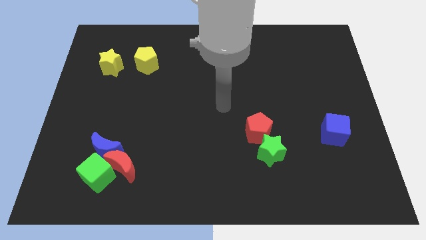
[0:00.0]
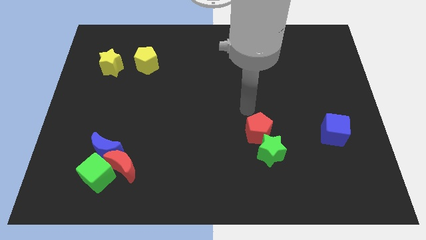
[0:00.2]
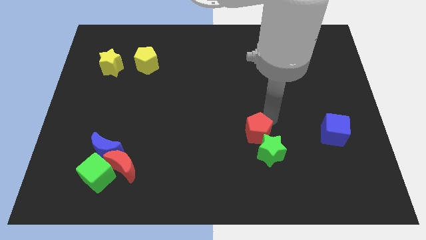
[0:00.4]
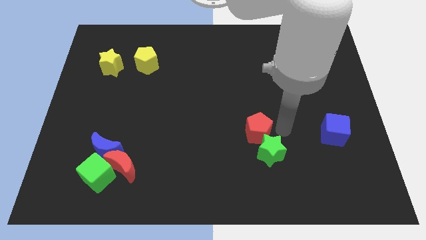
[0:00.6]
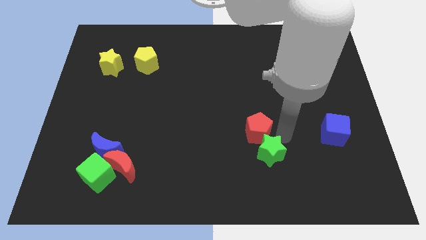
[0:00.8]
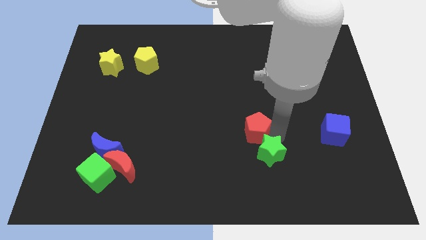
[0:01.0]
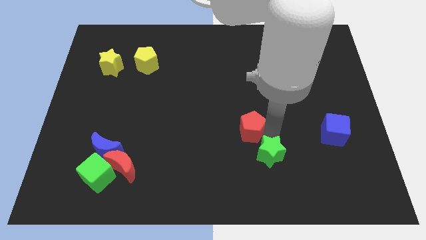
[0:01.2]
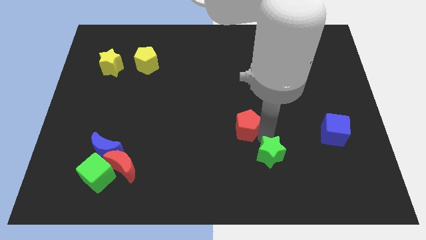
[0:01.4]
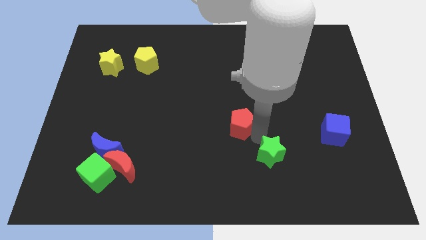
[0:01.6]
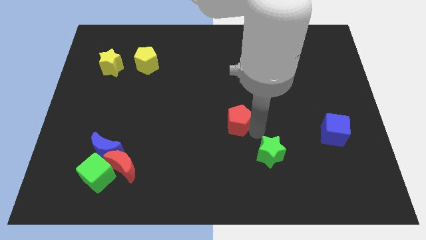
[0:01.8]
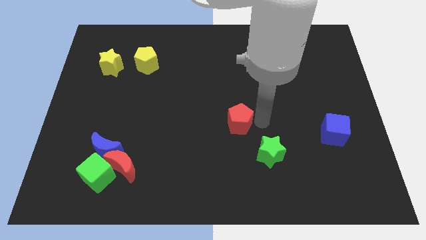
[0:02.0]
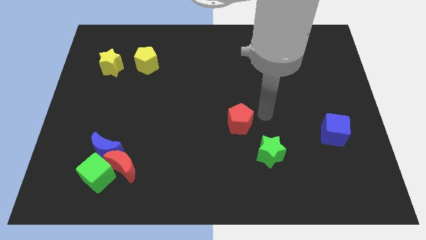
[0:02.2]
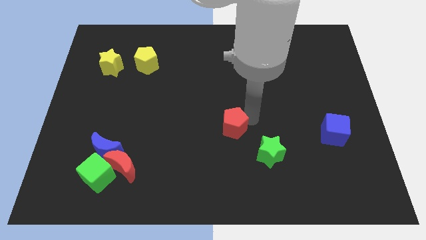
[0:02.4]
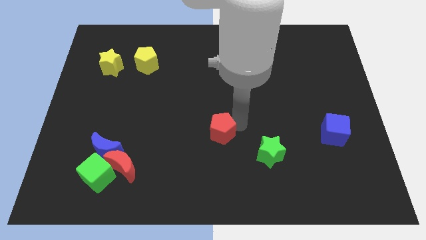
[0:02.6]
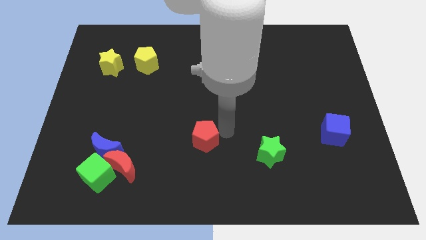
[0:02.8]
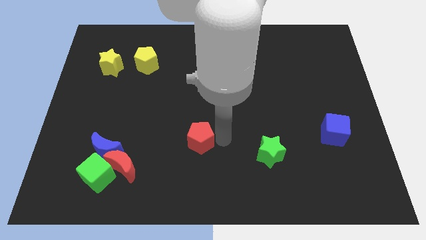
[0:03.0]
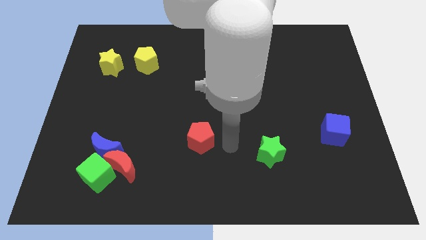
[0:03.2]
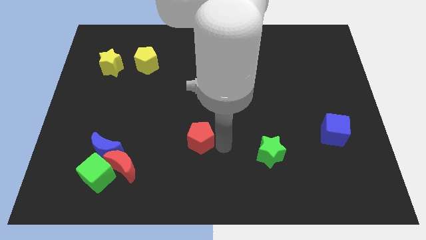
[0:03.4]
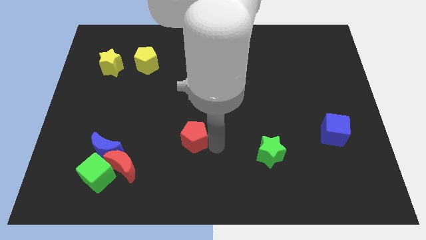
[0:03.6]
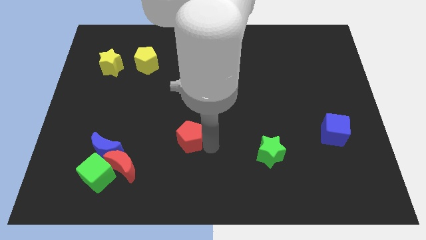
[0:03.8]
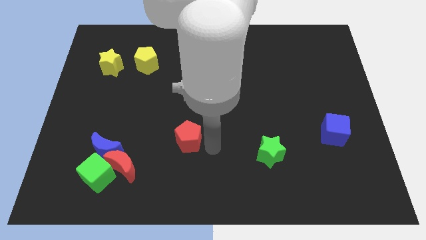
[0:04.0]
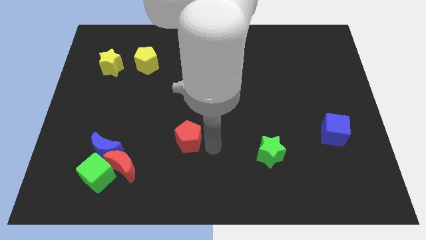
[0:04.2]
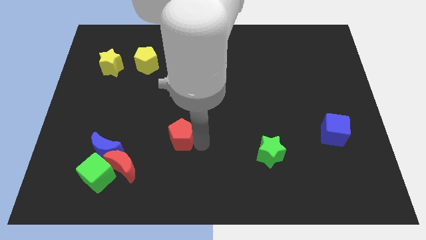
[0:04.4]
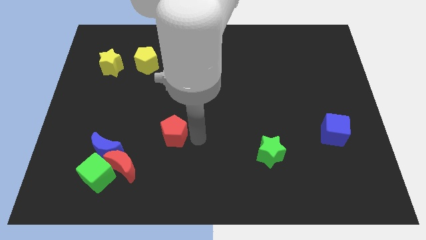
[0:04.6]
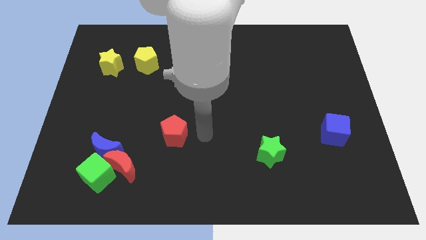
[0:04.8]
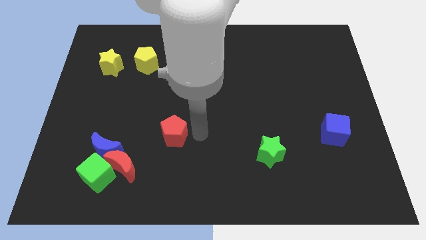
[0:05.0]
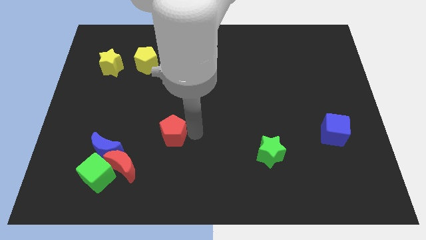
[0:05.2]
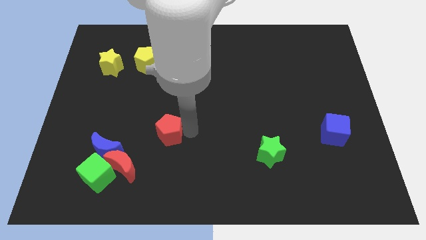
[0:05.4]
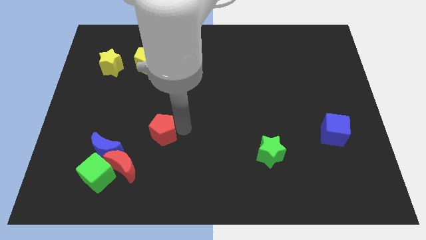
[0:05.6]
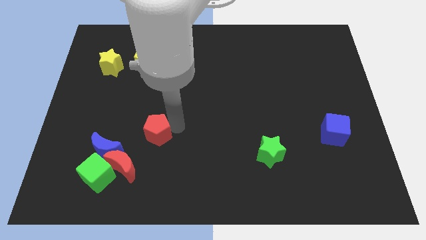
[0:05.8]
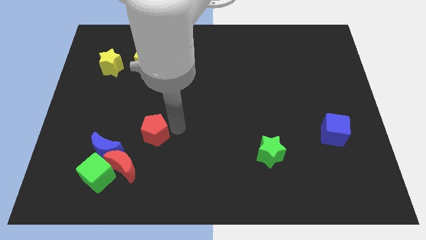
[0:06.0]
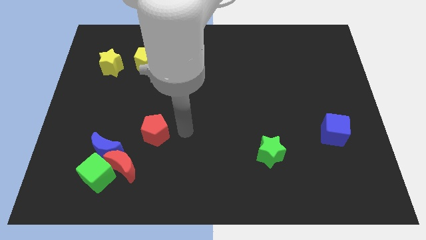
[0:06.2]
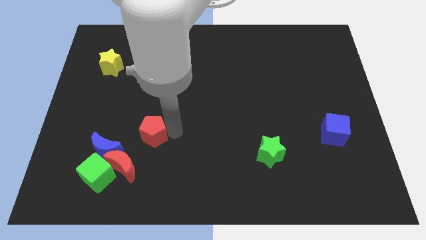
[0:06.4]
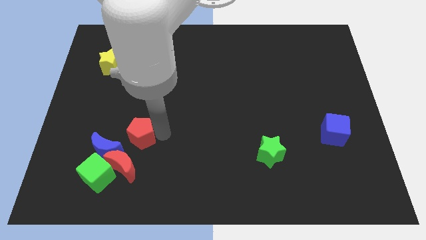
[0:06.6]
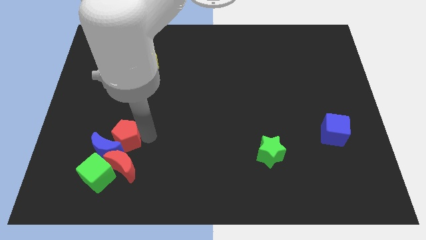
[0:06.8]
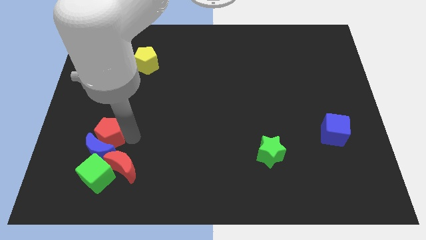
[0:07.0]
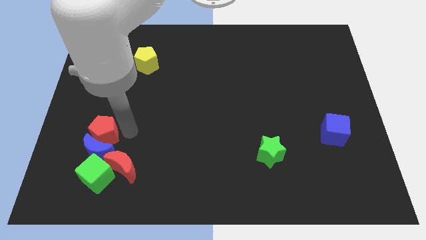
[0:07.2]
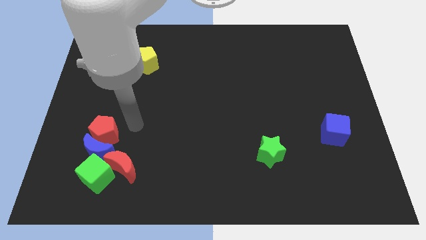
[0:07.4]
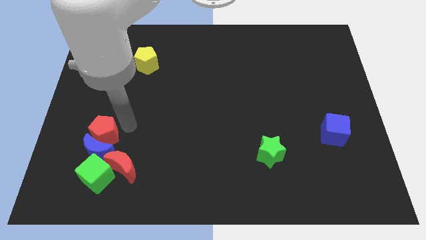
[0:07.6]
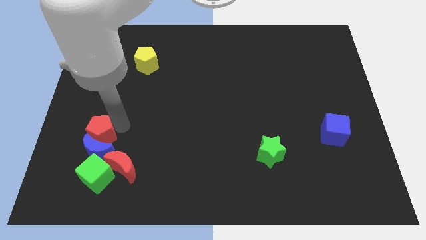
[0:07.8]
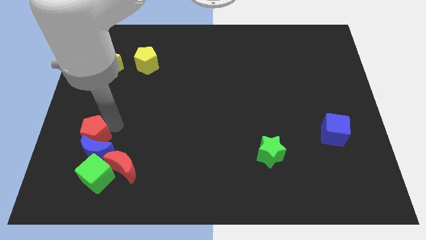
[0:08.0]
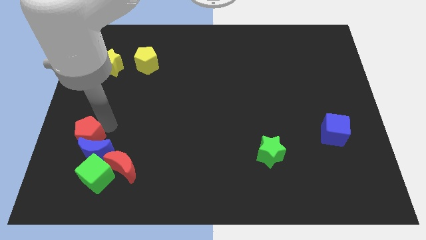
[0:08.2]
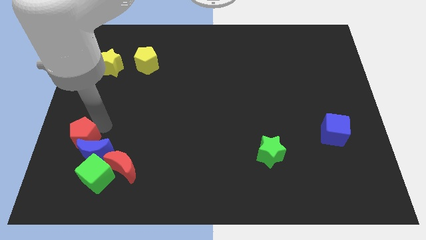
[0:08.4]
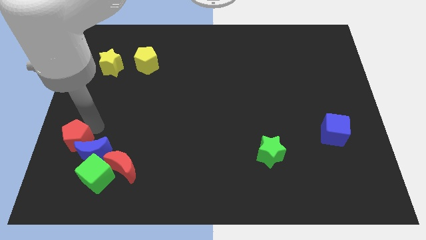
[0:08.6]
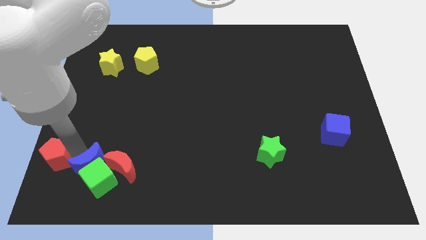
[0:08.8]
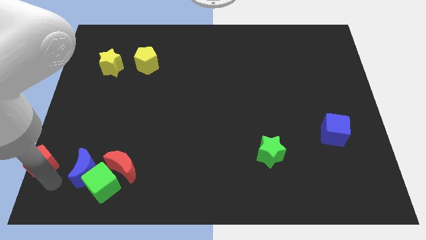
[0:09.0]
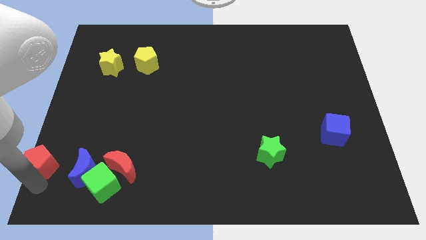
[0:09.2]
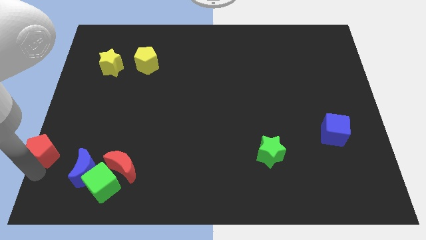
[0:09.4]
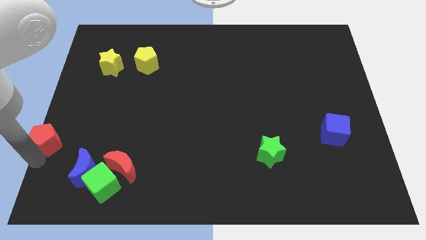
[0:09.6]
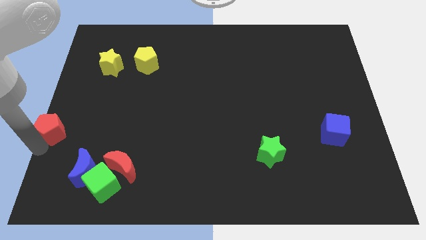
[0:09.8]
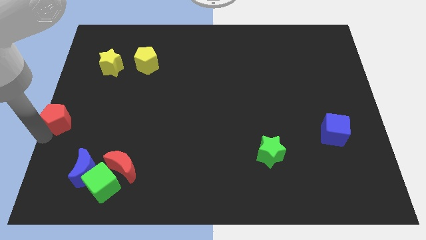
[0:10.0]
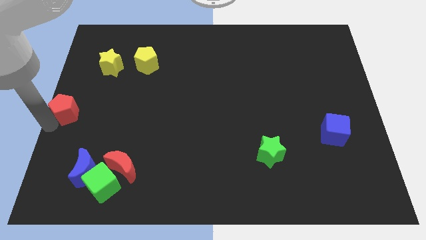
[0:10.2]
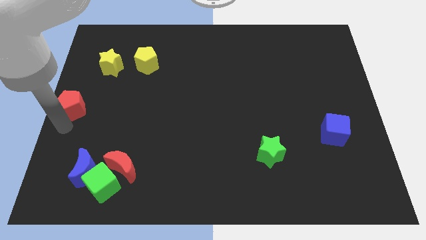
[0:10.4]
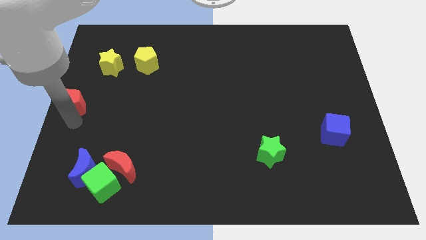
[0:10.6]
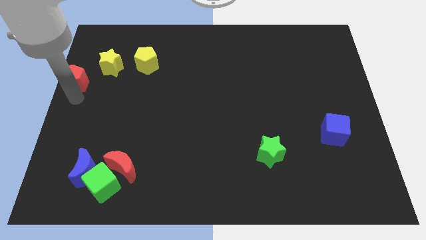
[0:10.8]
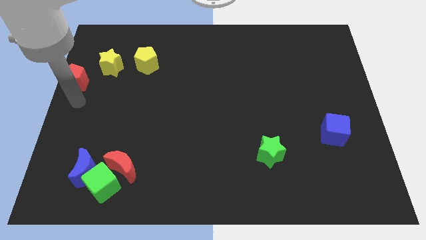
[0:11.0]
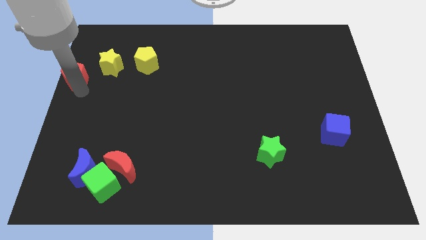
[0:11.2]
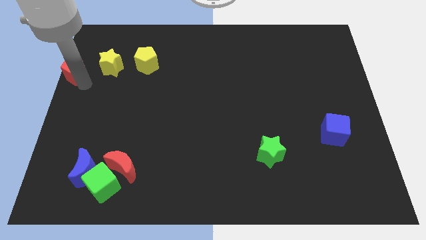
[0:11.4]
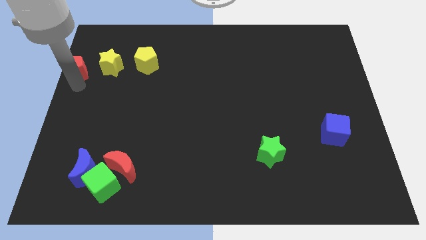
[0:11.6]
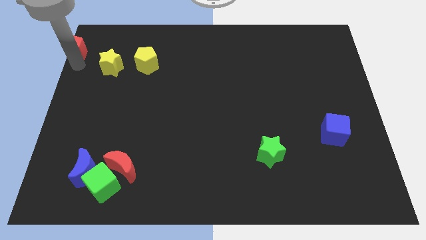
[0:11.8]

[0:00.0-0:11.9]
slide the red pentagon to the top left of the board
